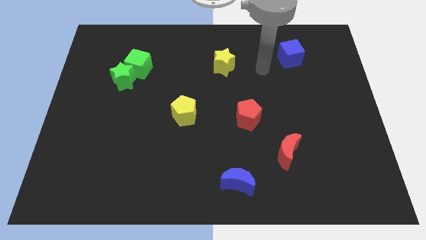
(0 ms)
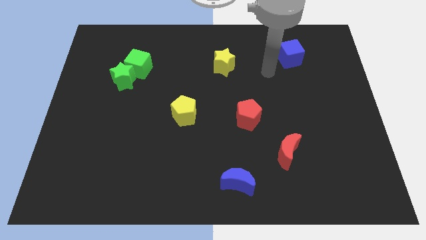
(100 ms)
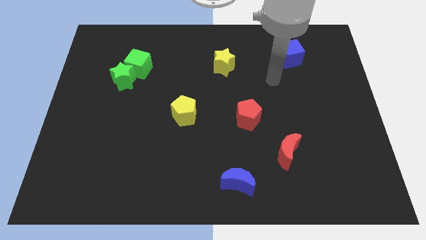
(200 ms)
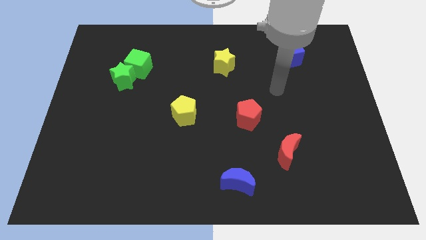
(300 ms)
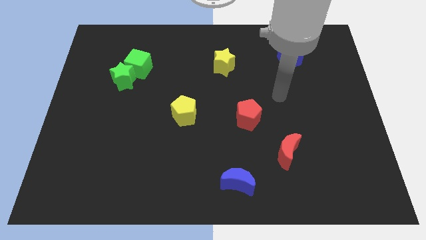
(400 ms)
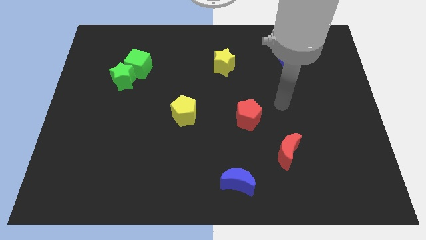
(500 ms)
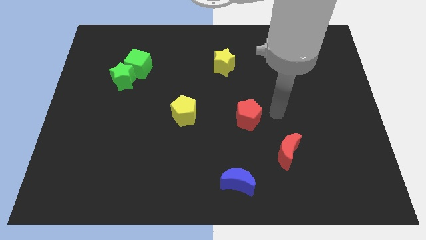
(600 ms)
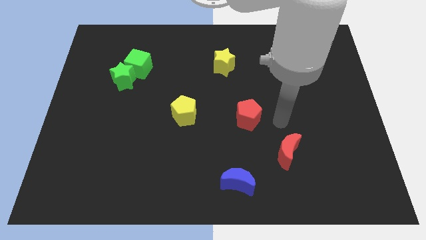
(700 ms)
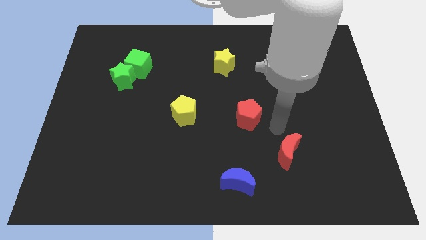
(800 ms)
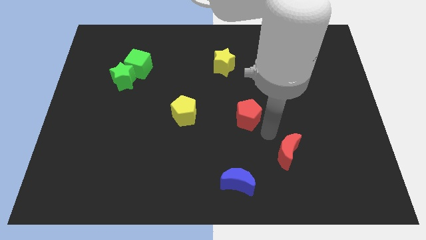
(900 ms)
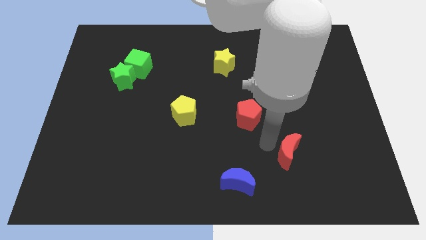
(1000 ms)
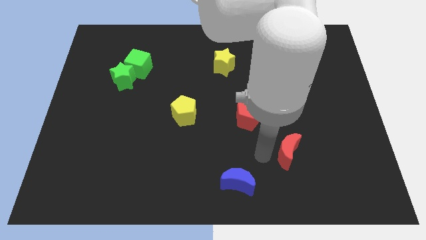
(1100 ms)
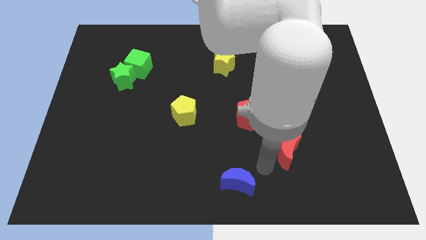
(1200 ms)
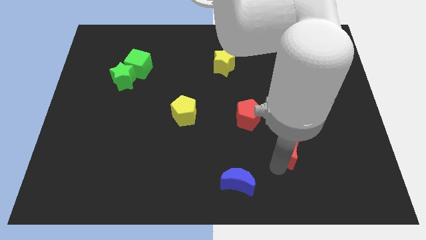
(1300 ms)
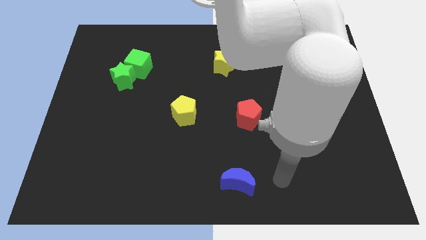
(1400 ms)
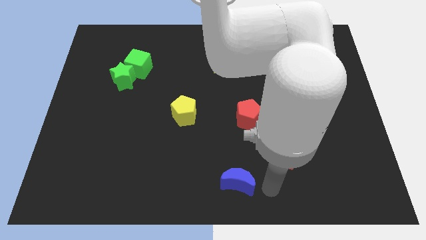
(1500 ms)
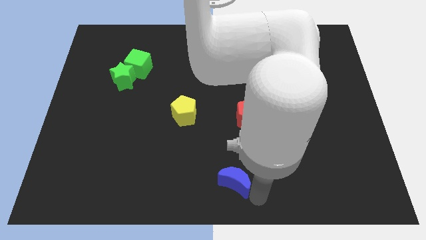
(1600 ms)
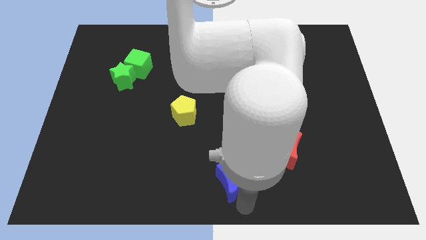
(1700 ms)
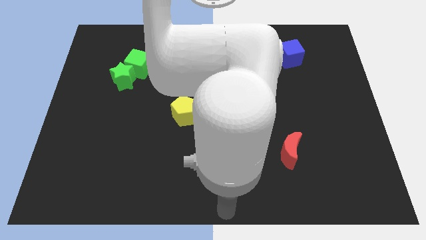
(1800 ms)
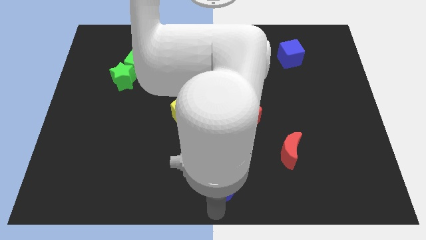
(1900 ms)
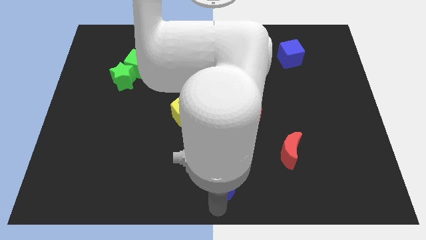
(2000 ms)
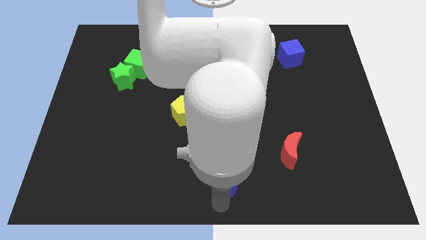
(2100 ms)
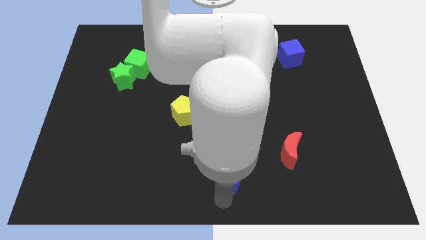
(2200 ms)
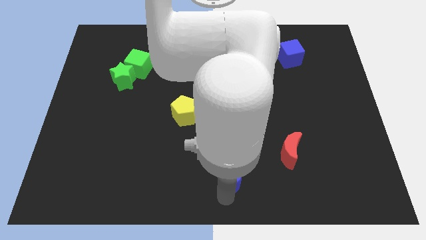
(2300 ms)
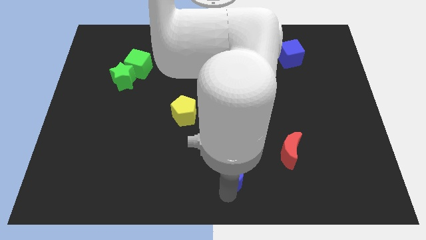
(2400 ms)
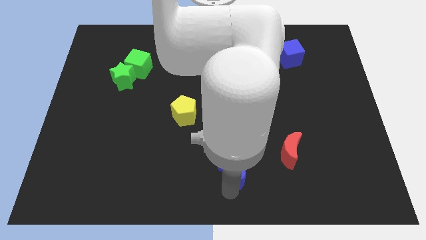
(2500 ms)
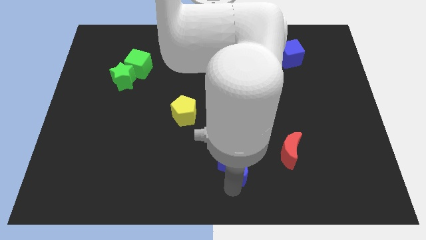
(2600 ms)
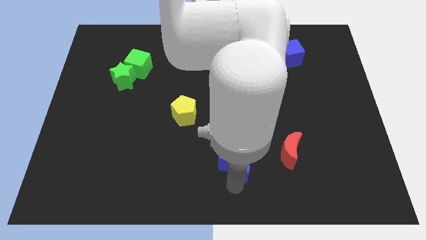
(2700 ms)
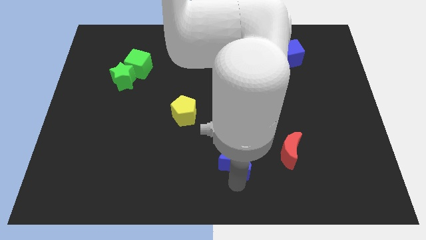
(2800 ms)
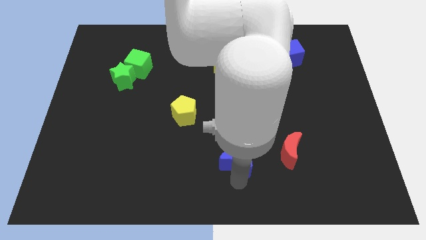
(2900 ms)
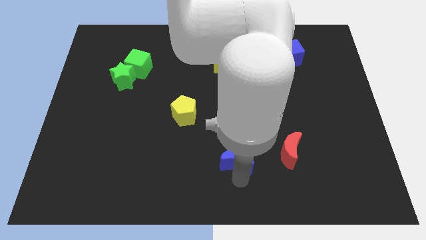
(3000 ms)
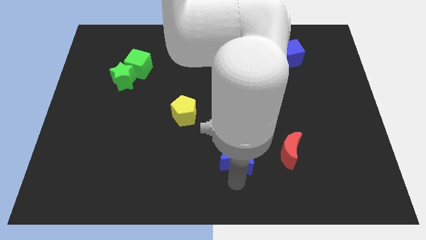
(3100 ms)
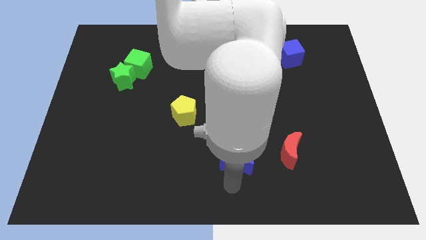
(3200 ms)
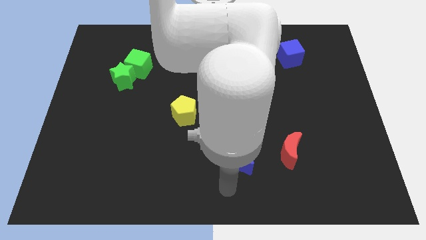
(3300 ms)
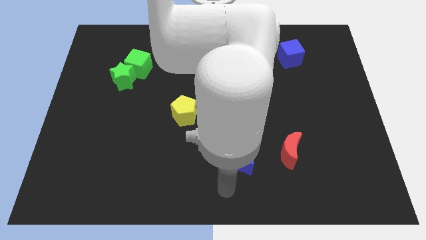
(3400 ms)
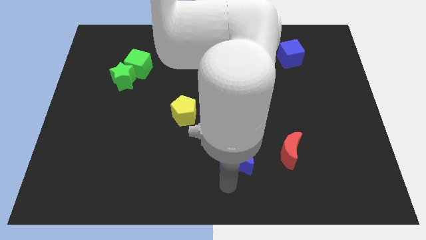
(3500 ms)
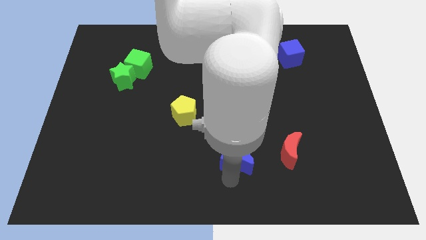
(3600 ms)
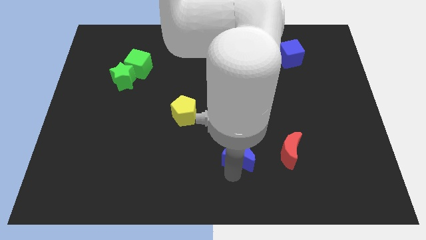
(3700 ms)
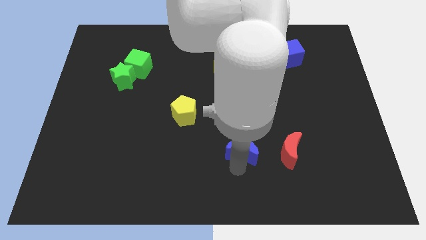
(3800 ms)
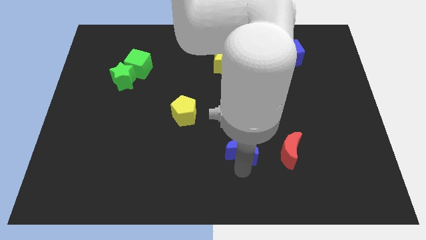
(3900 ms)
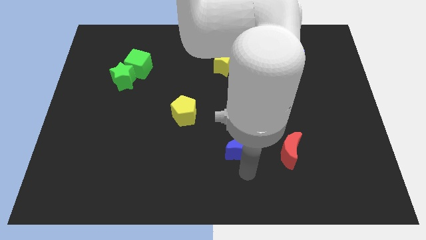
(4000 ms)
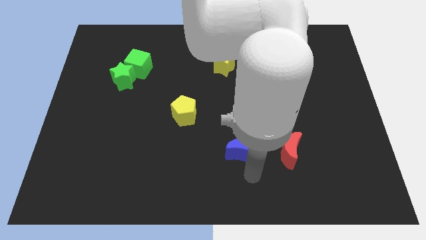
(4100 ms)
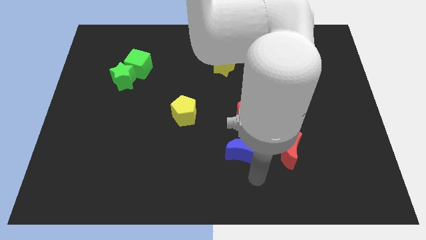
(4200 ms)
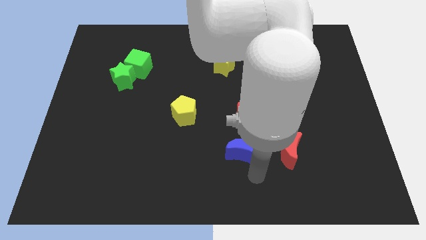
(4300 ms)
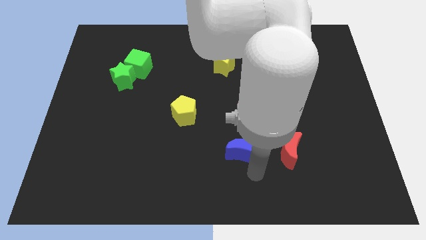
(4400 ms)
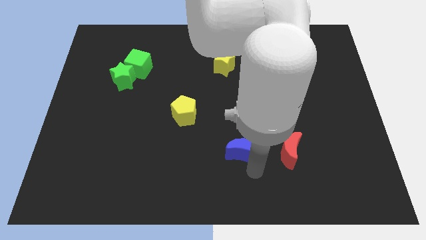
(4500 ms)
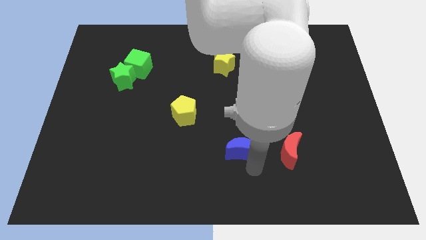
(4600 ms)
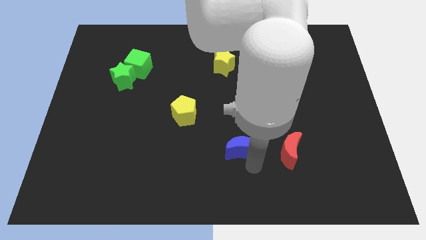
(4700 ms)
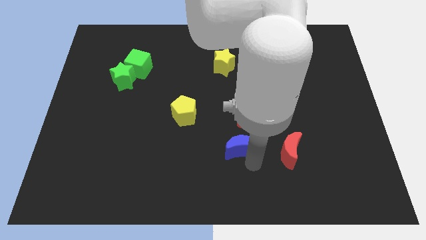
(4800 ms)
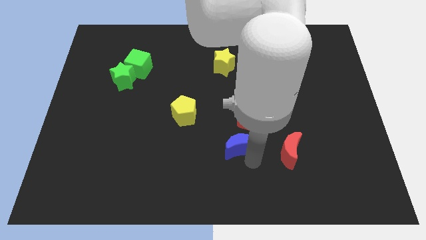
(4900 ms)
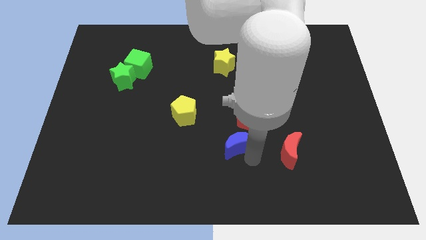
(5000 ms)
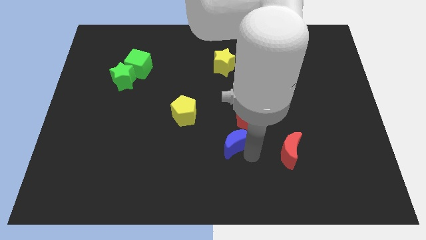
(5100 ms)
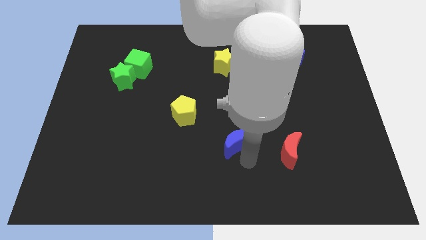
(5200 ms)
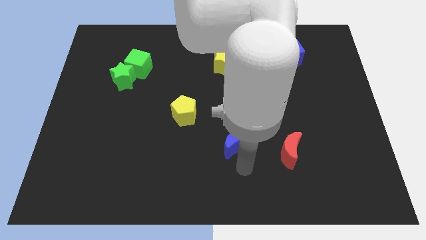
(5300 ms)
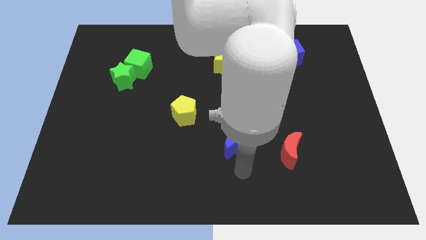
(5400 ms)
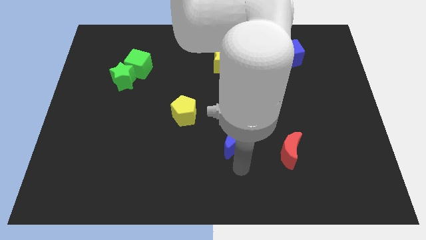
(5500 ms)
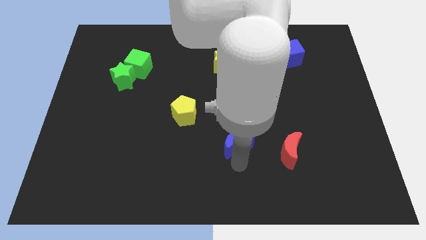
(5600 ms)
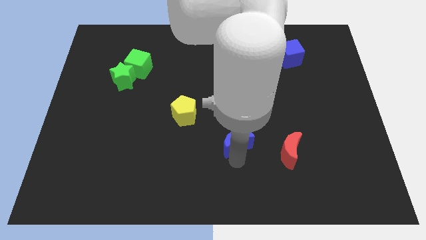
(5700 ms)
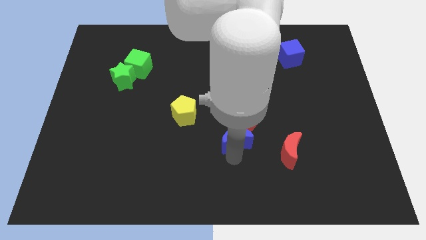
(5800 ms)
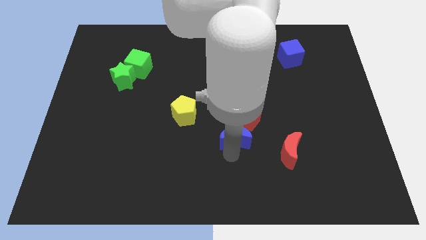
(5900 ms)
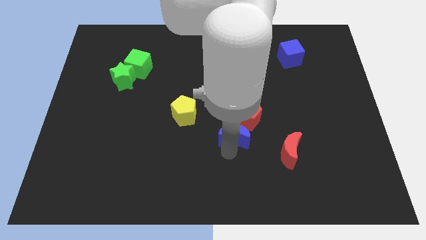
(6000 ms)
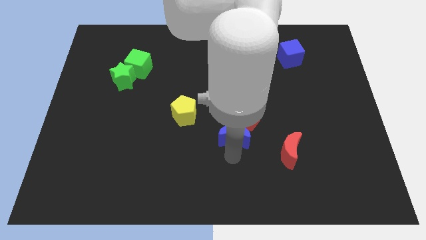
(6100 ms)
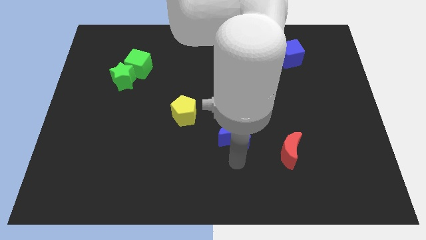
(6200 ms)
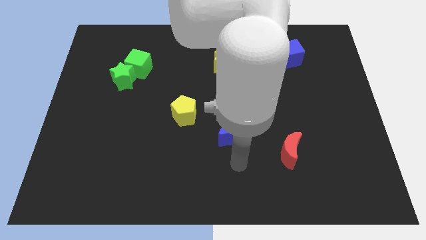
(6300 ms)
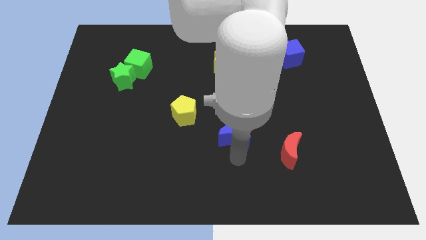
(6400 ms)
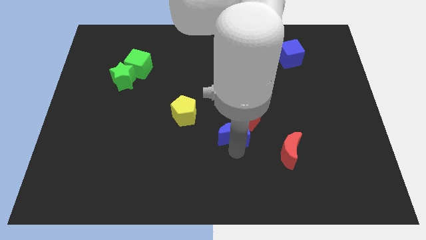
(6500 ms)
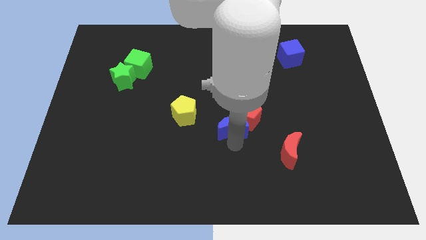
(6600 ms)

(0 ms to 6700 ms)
slide the blue moon to the right side of the yellow pentagon

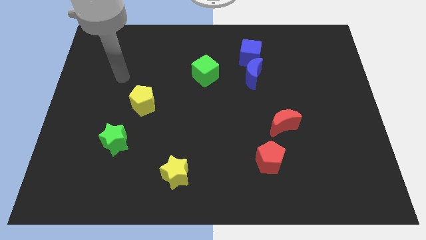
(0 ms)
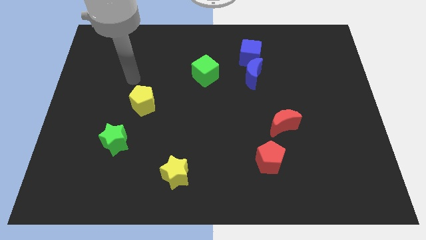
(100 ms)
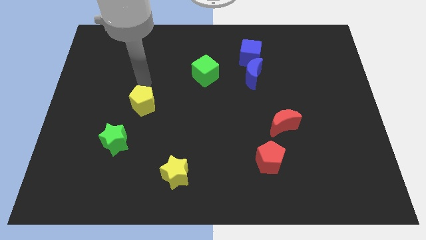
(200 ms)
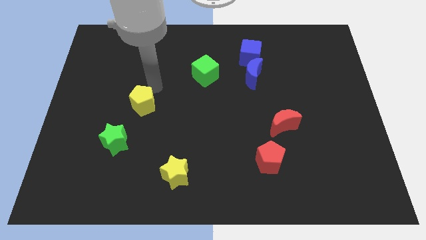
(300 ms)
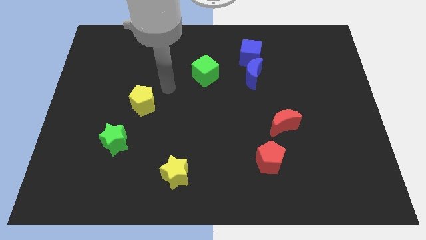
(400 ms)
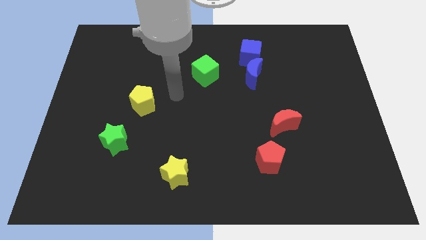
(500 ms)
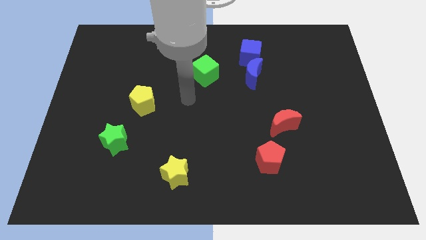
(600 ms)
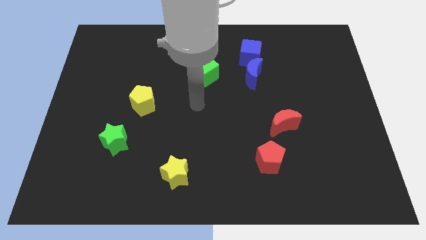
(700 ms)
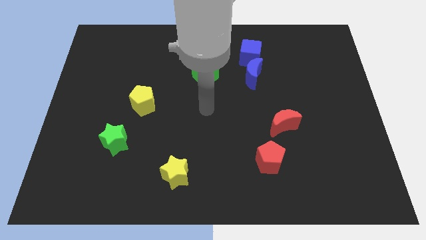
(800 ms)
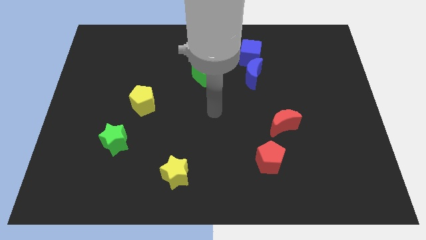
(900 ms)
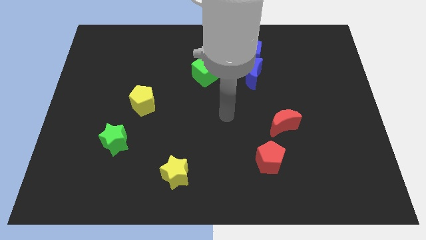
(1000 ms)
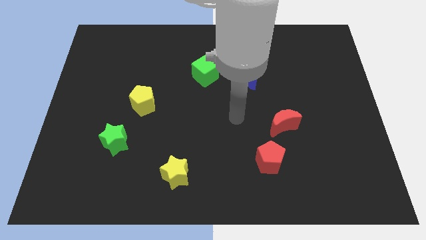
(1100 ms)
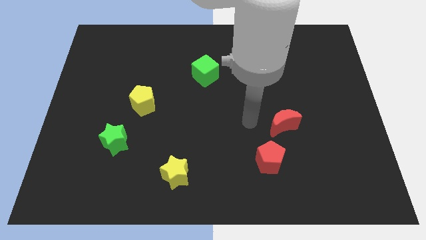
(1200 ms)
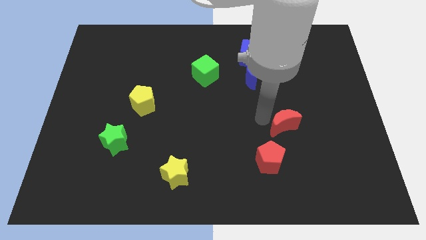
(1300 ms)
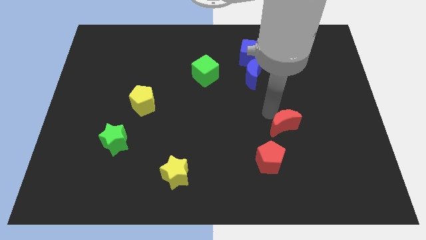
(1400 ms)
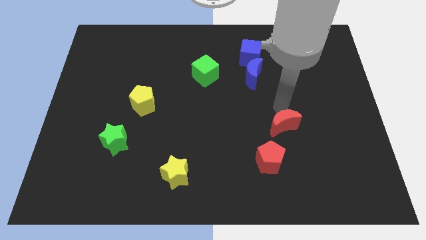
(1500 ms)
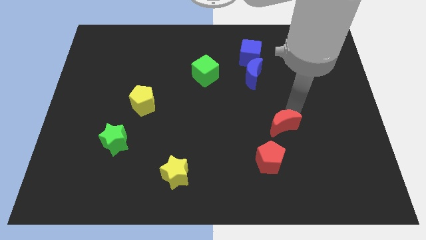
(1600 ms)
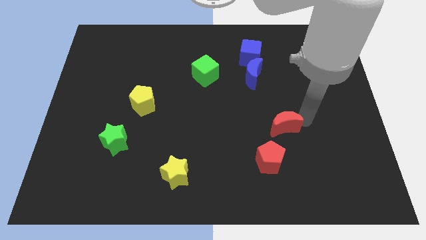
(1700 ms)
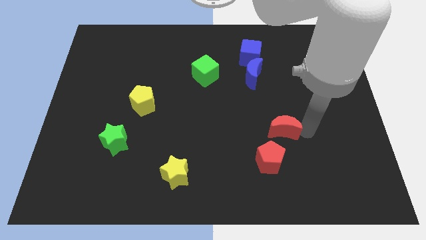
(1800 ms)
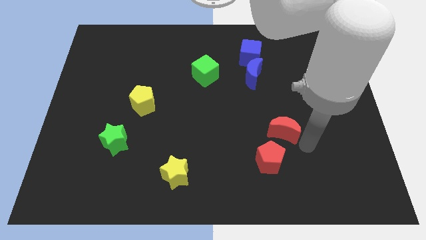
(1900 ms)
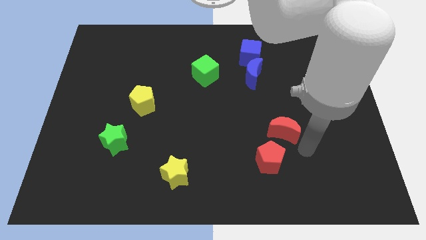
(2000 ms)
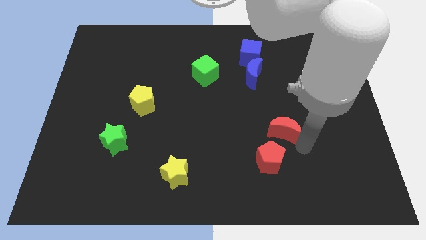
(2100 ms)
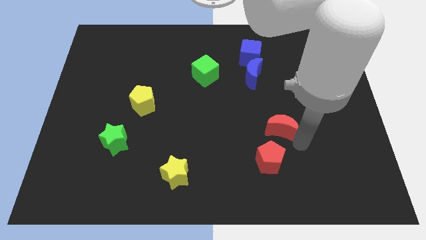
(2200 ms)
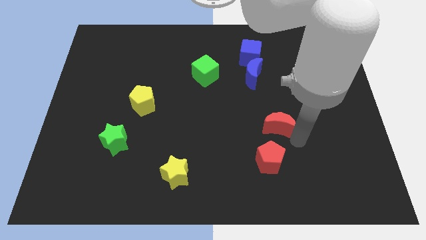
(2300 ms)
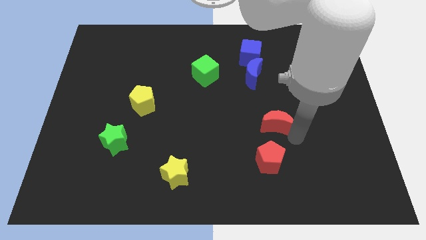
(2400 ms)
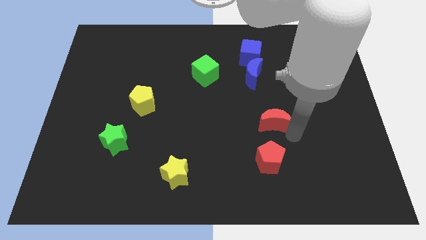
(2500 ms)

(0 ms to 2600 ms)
push the red moon below the blue moon
